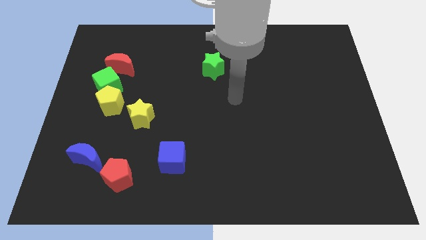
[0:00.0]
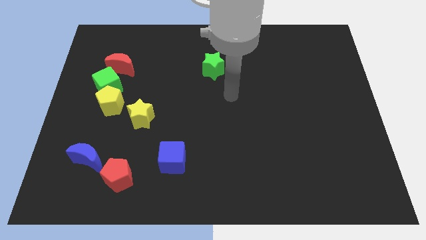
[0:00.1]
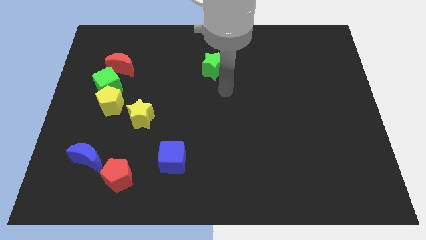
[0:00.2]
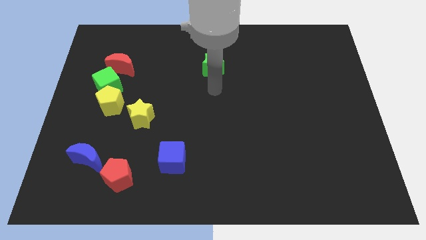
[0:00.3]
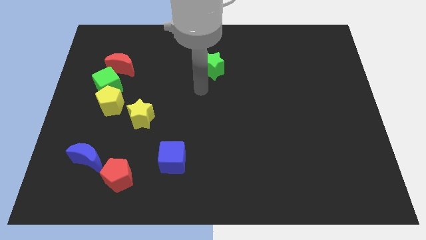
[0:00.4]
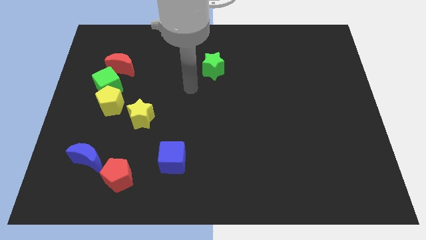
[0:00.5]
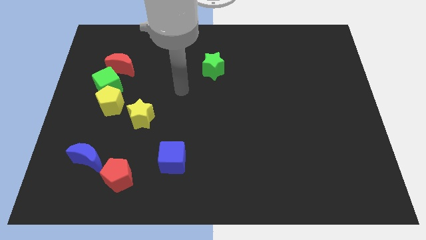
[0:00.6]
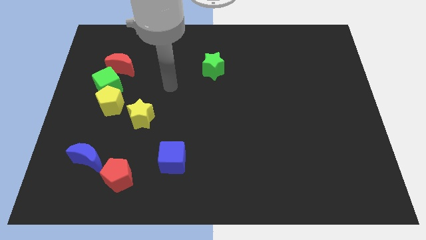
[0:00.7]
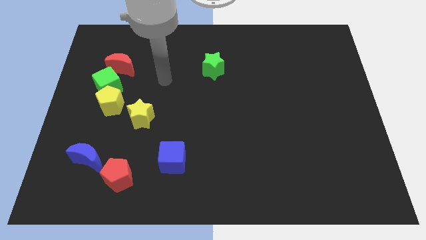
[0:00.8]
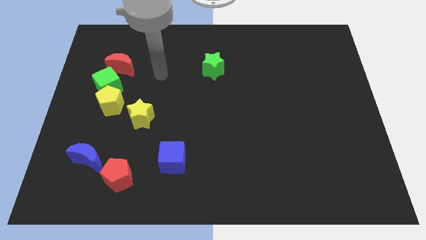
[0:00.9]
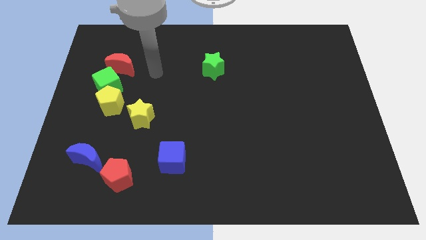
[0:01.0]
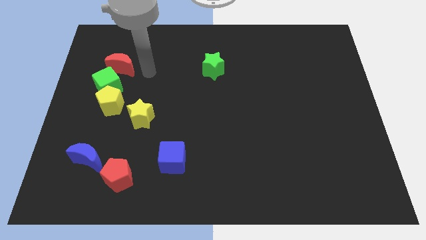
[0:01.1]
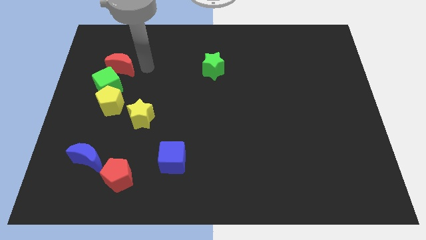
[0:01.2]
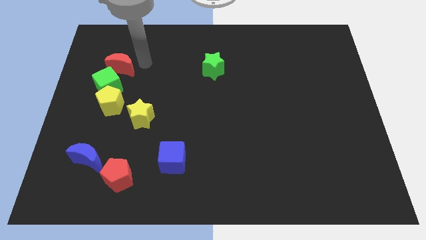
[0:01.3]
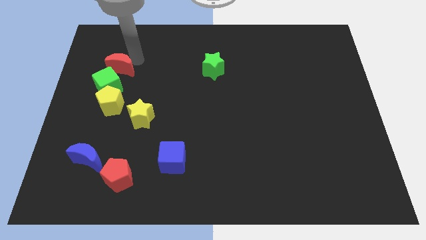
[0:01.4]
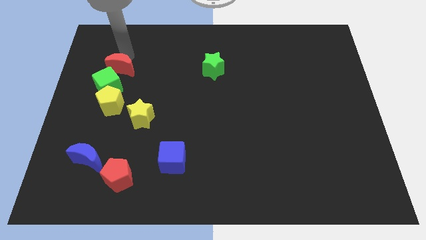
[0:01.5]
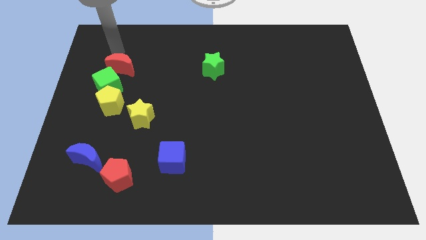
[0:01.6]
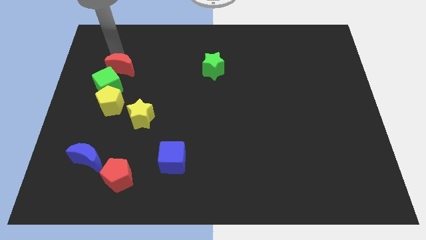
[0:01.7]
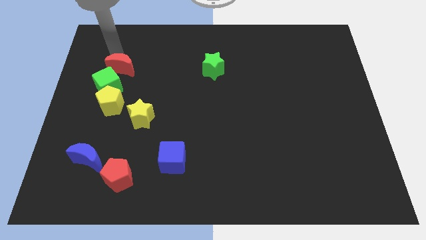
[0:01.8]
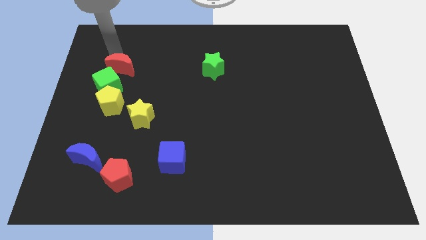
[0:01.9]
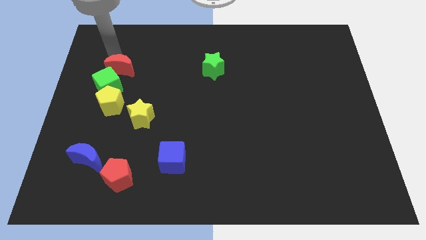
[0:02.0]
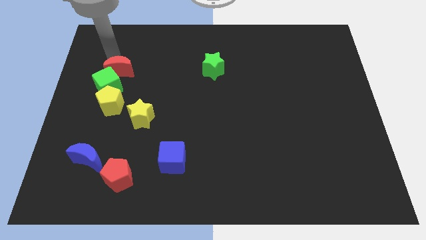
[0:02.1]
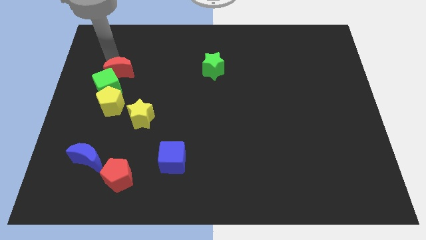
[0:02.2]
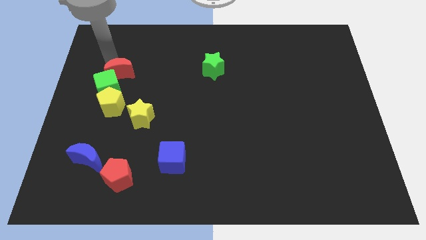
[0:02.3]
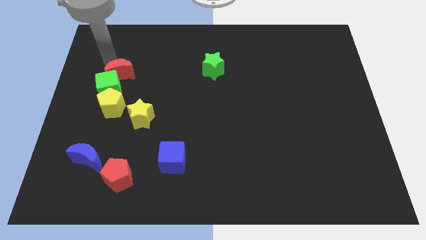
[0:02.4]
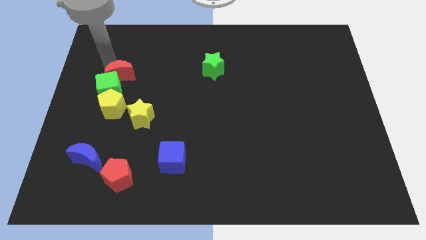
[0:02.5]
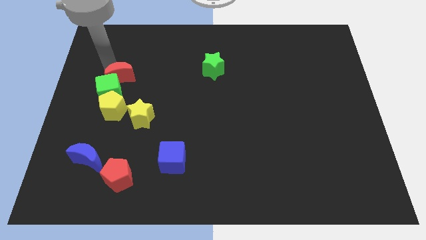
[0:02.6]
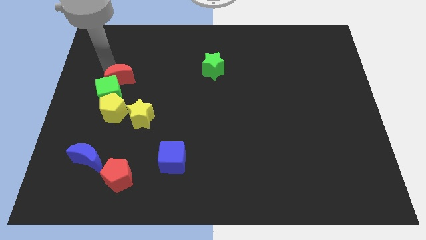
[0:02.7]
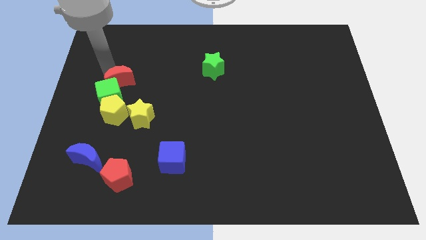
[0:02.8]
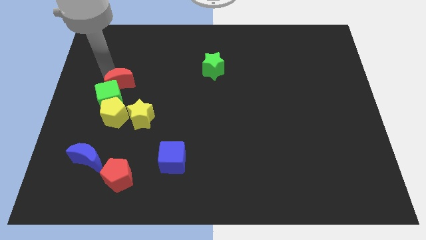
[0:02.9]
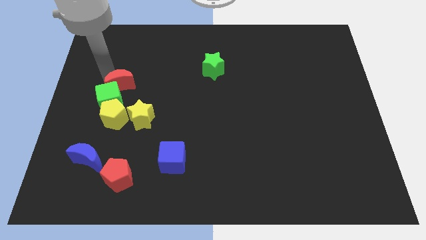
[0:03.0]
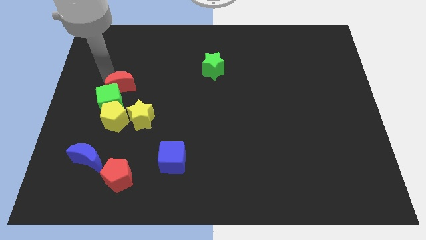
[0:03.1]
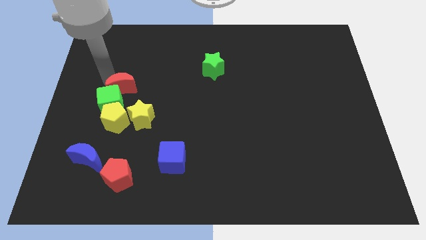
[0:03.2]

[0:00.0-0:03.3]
slide the red moon a bit down

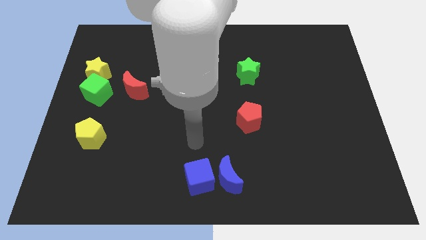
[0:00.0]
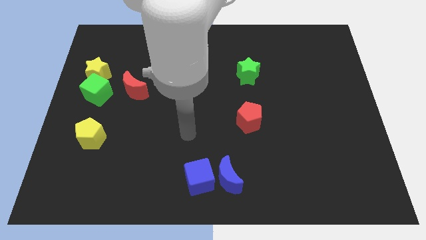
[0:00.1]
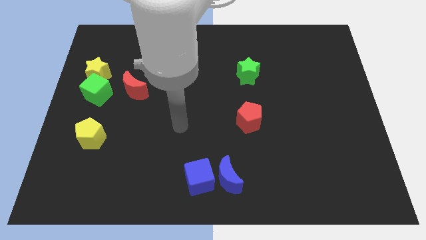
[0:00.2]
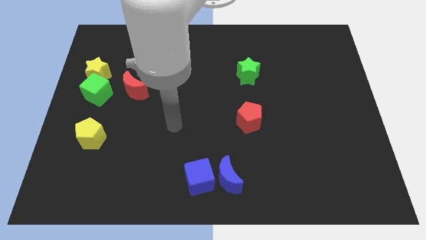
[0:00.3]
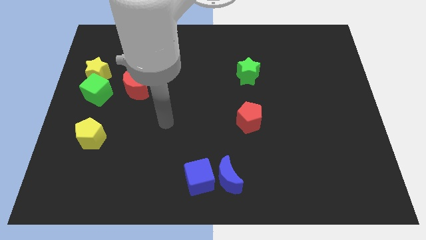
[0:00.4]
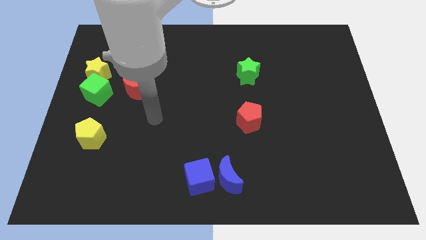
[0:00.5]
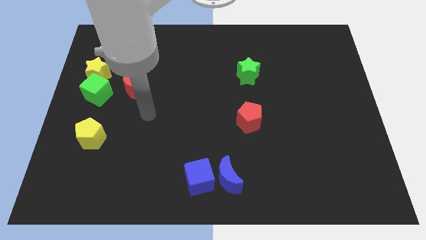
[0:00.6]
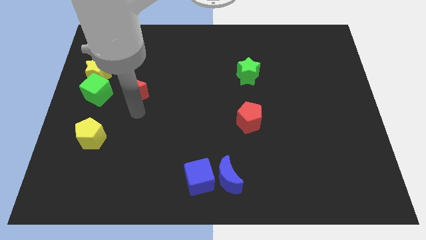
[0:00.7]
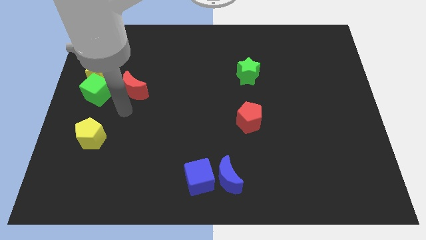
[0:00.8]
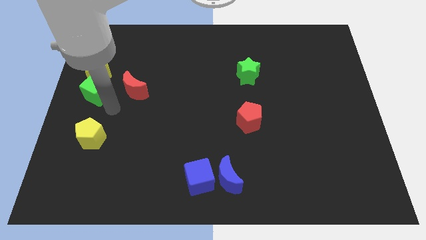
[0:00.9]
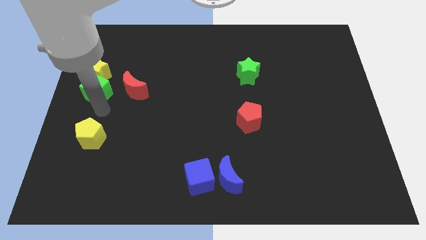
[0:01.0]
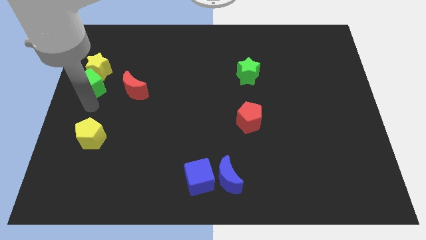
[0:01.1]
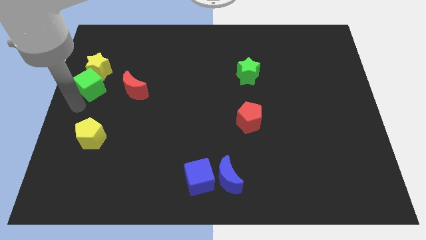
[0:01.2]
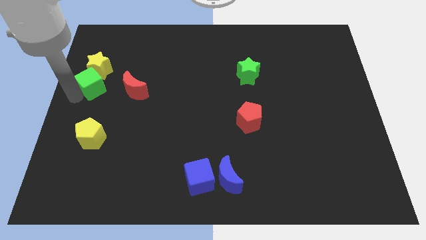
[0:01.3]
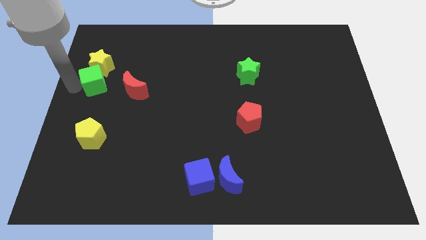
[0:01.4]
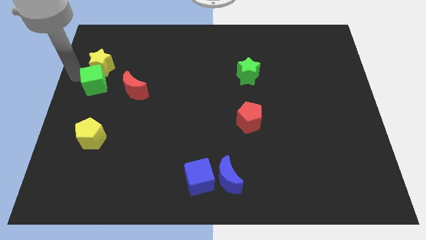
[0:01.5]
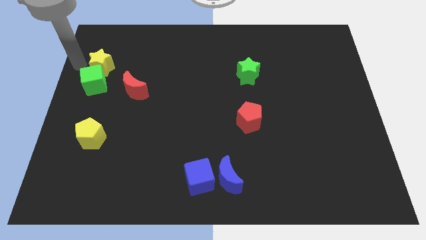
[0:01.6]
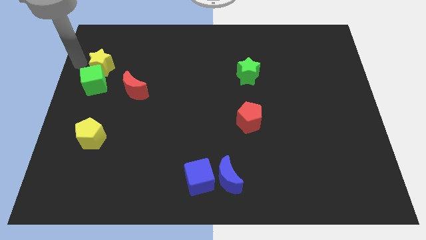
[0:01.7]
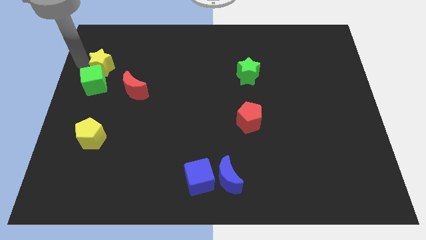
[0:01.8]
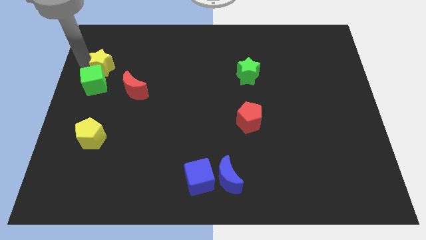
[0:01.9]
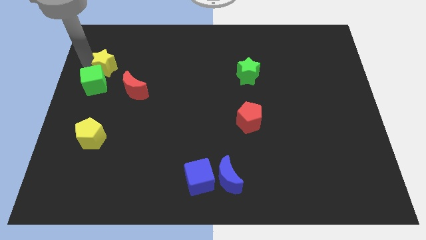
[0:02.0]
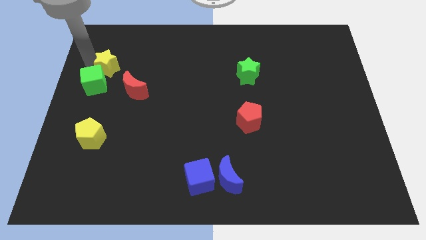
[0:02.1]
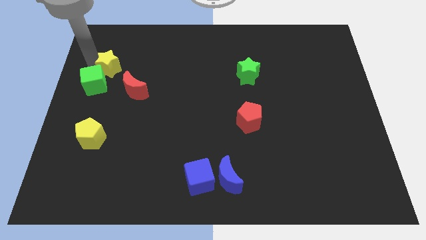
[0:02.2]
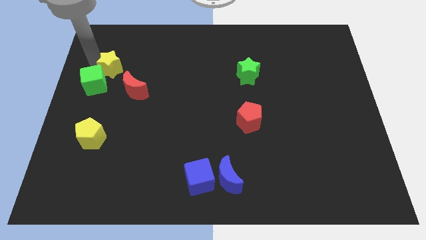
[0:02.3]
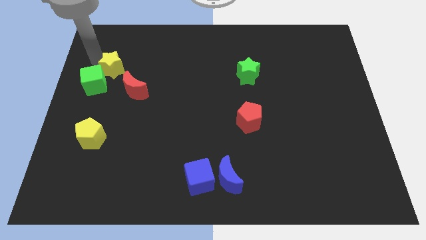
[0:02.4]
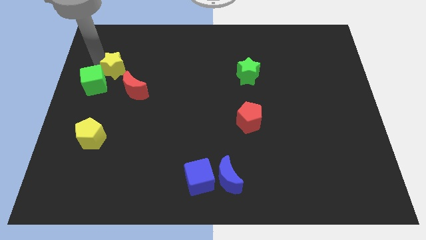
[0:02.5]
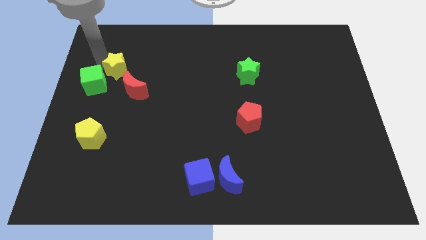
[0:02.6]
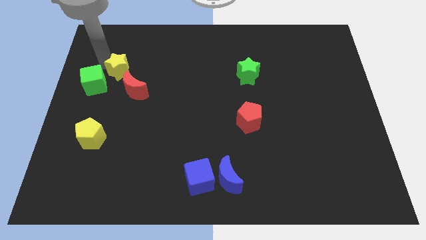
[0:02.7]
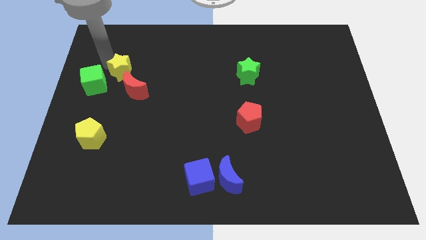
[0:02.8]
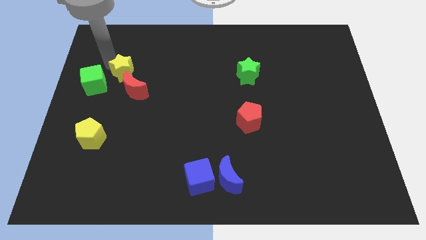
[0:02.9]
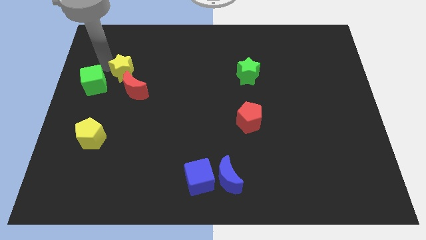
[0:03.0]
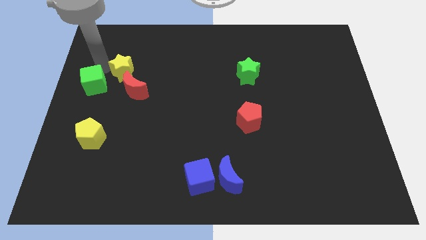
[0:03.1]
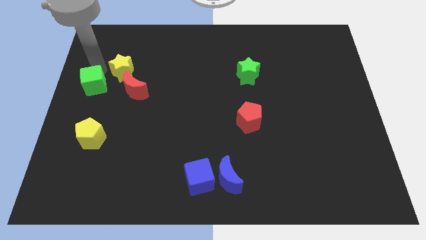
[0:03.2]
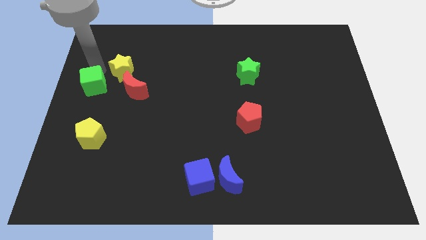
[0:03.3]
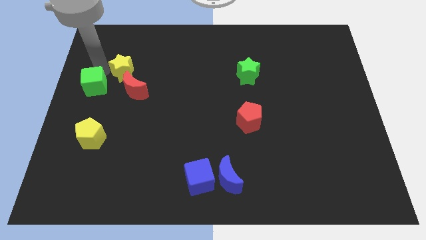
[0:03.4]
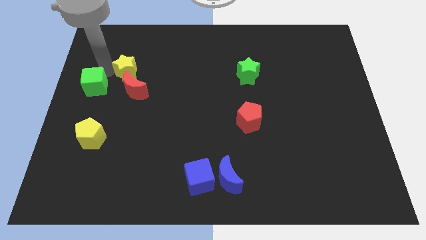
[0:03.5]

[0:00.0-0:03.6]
move the yellow star right somewhat

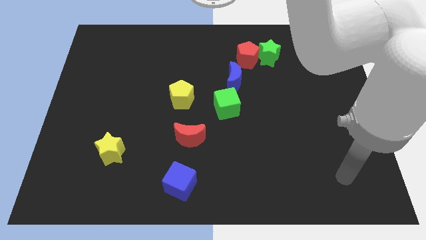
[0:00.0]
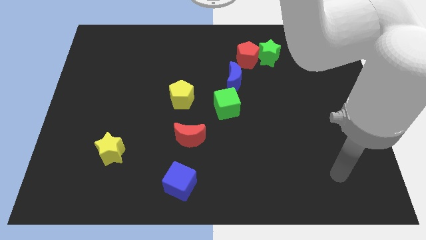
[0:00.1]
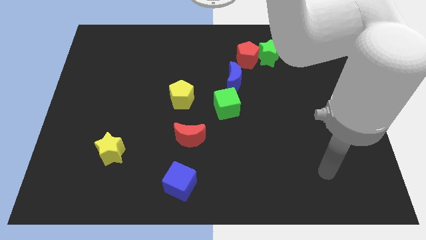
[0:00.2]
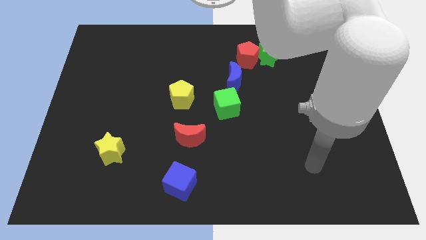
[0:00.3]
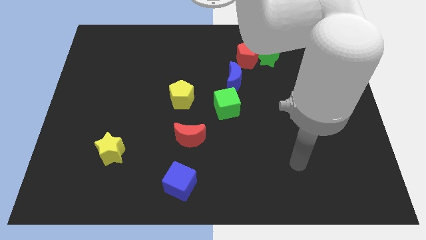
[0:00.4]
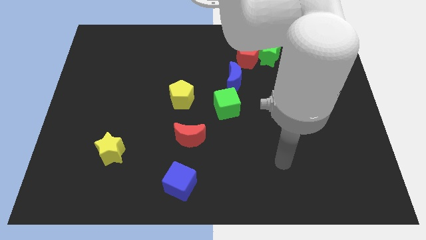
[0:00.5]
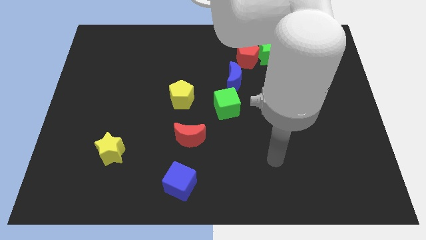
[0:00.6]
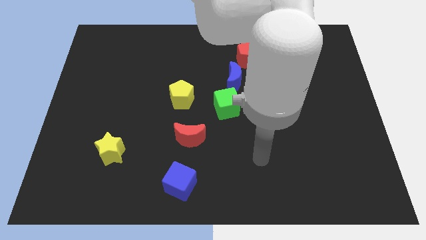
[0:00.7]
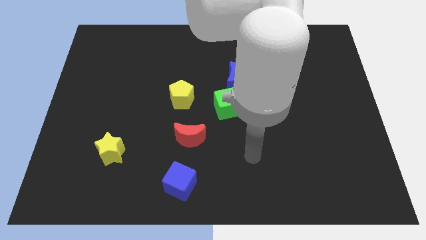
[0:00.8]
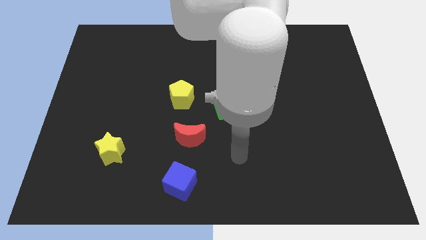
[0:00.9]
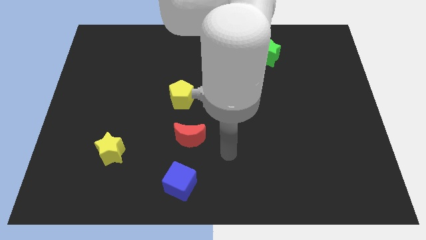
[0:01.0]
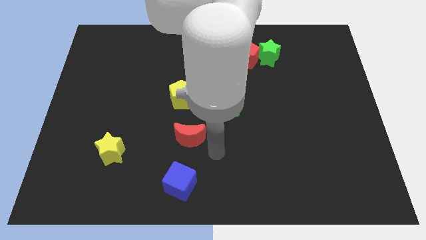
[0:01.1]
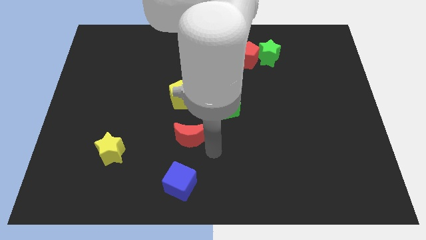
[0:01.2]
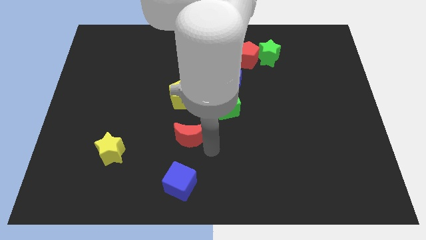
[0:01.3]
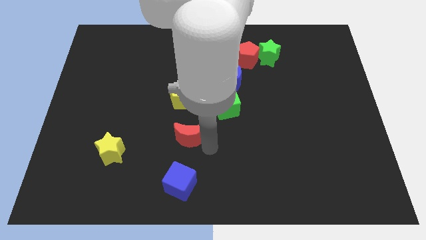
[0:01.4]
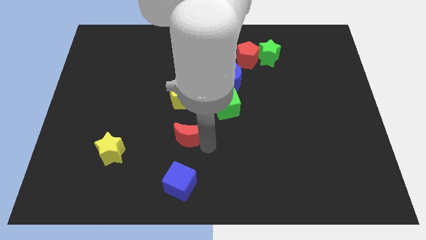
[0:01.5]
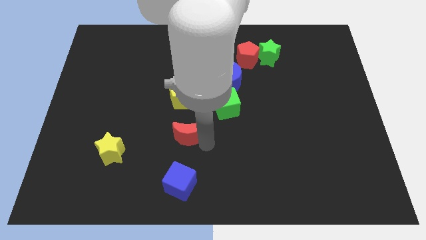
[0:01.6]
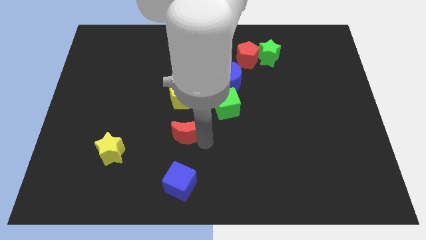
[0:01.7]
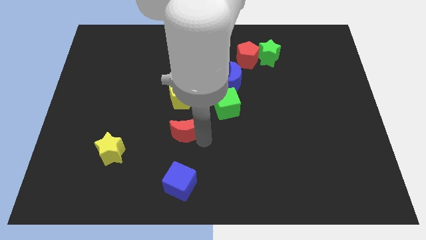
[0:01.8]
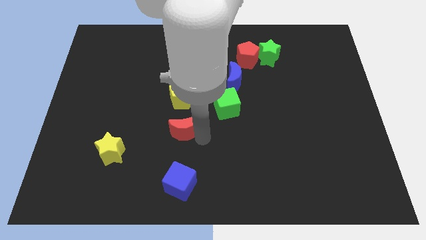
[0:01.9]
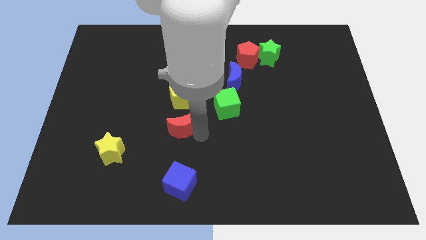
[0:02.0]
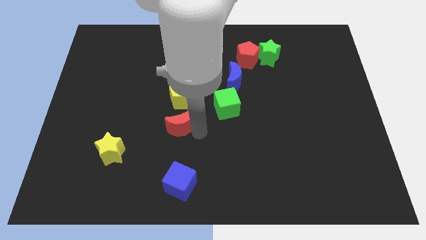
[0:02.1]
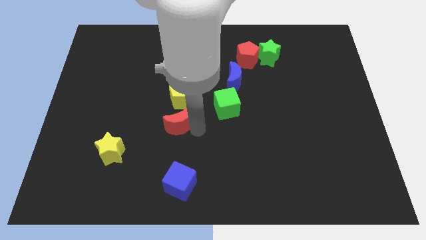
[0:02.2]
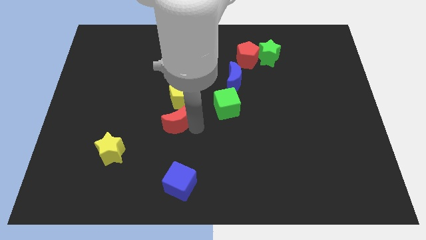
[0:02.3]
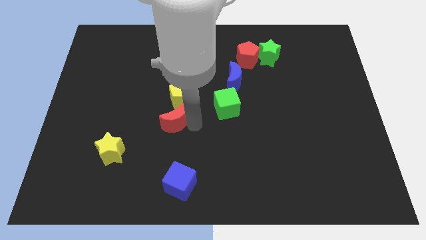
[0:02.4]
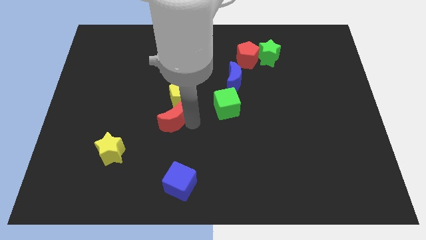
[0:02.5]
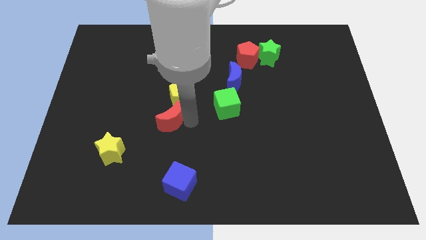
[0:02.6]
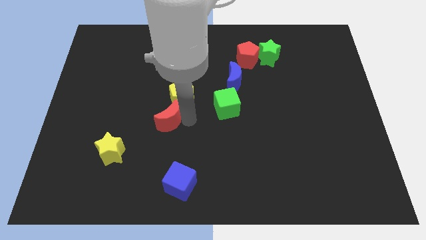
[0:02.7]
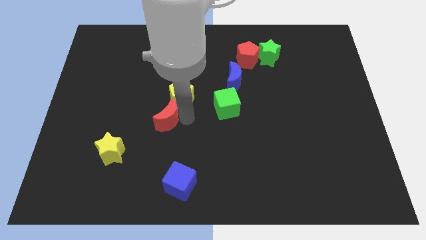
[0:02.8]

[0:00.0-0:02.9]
push the red moon somewhat up and left diagonally
